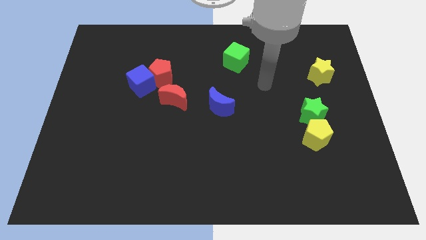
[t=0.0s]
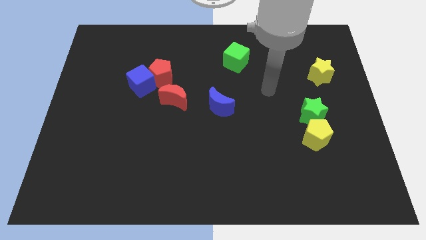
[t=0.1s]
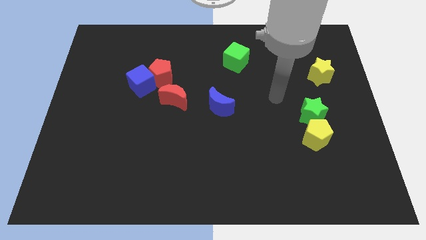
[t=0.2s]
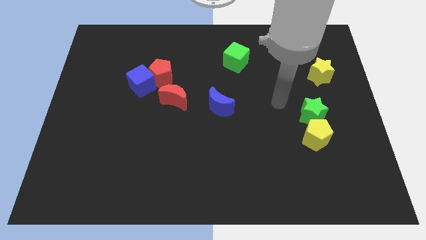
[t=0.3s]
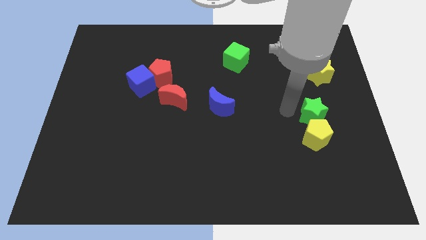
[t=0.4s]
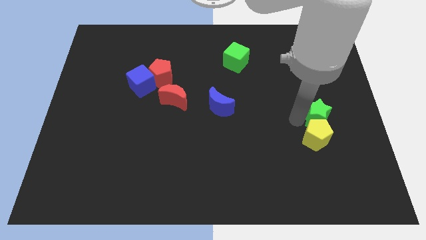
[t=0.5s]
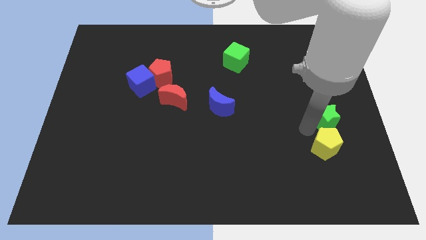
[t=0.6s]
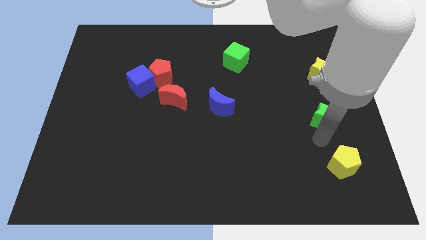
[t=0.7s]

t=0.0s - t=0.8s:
pull the green star apart from the yellow pentagon

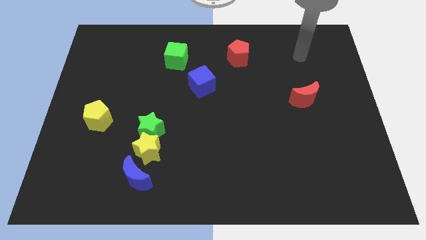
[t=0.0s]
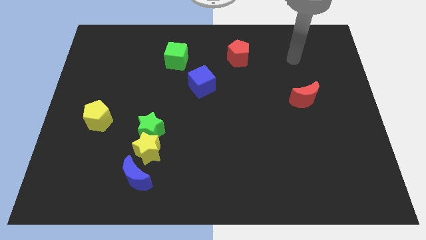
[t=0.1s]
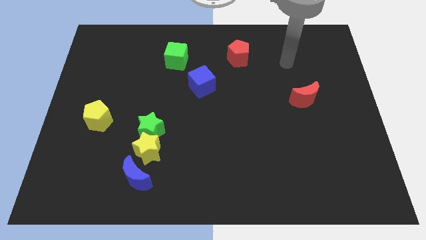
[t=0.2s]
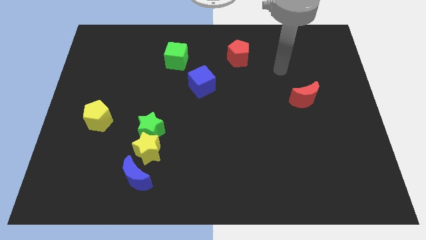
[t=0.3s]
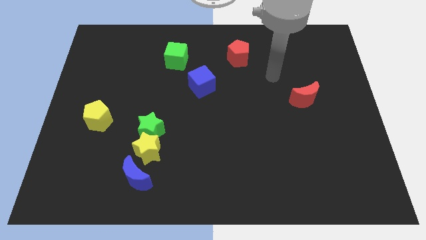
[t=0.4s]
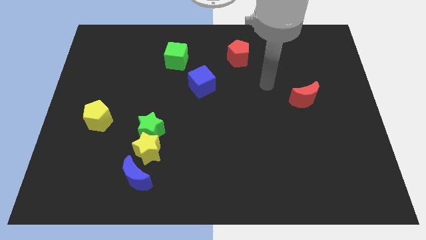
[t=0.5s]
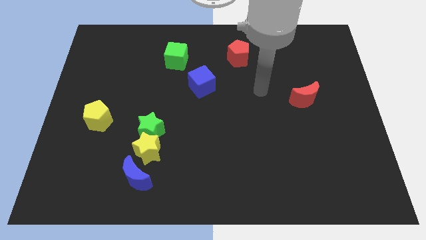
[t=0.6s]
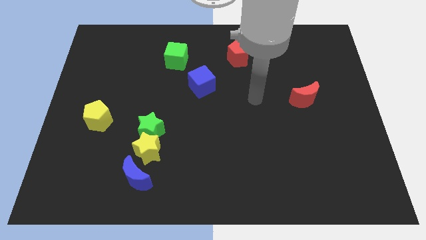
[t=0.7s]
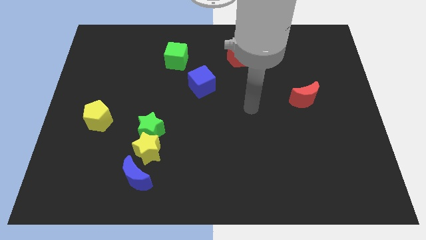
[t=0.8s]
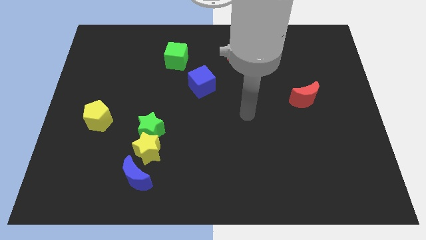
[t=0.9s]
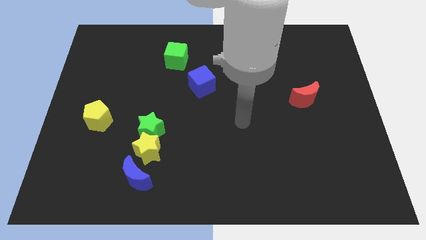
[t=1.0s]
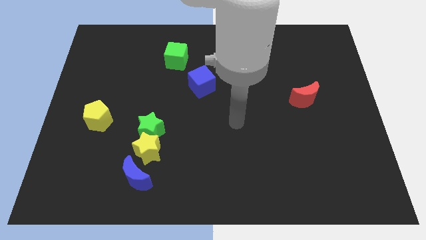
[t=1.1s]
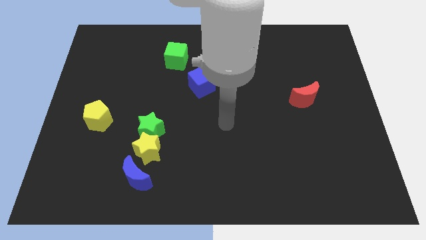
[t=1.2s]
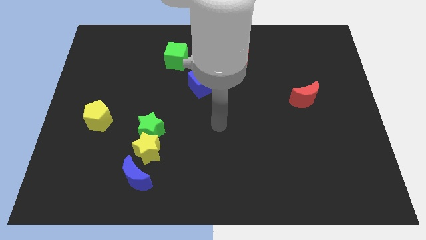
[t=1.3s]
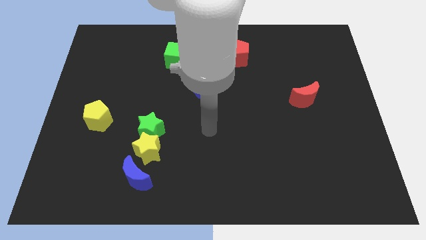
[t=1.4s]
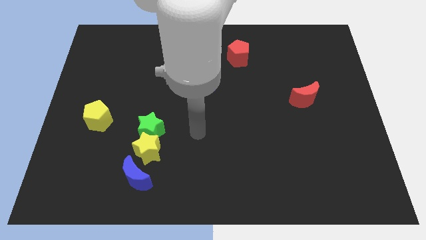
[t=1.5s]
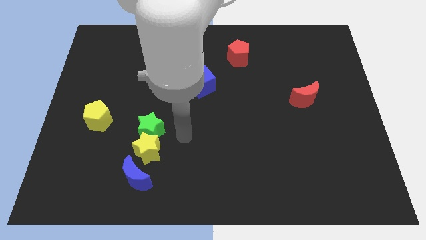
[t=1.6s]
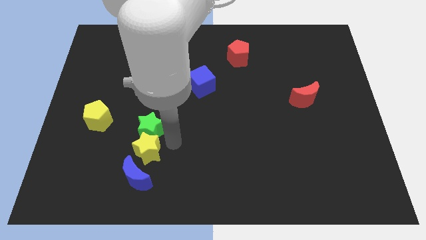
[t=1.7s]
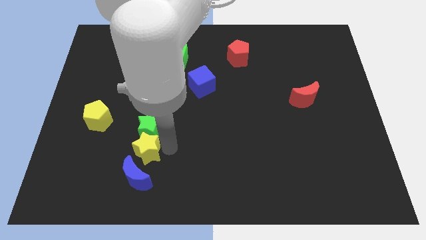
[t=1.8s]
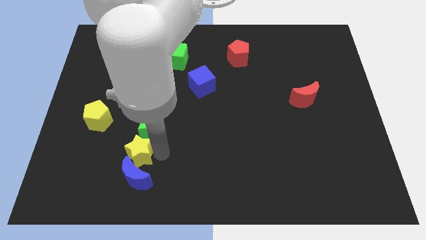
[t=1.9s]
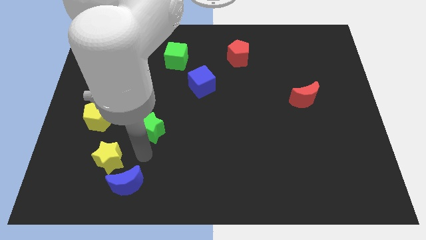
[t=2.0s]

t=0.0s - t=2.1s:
separate the green star from the yellow star

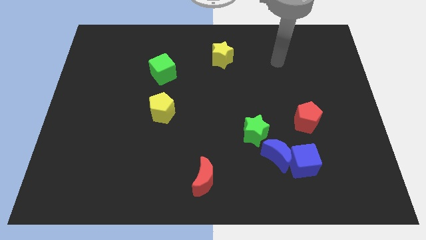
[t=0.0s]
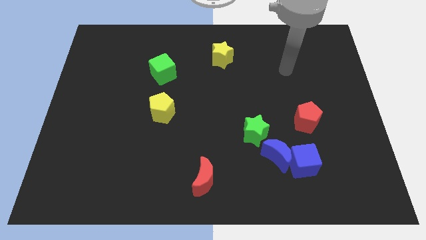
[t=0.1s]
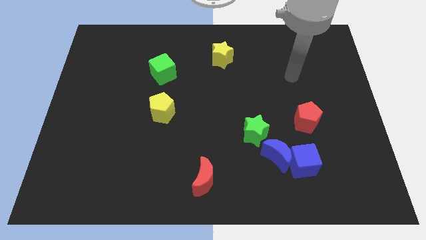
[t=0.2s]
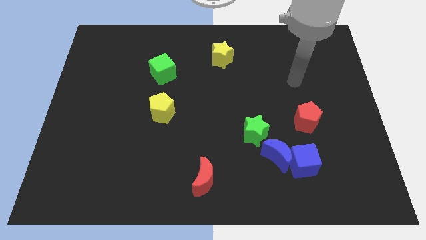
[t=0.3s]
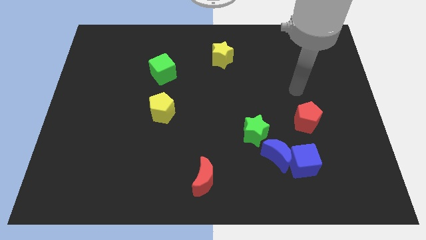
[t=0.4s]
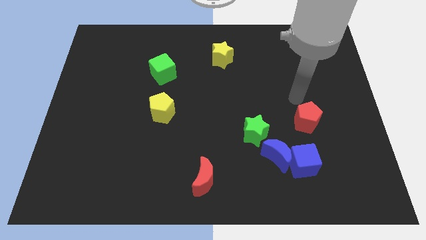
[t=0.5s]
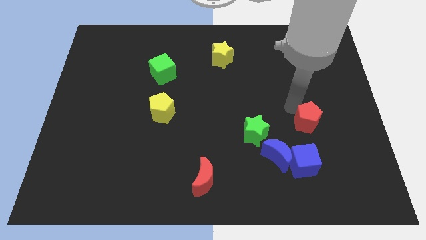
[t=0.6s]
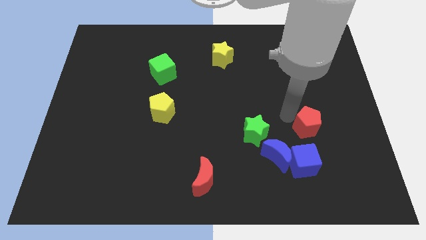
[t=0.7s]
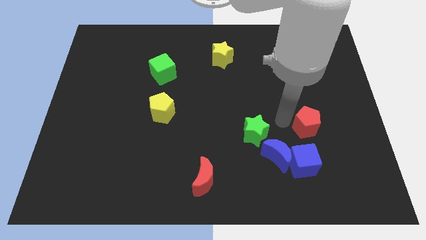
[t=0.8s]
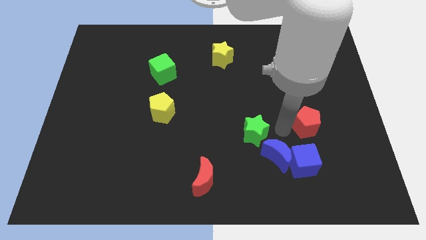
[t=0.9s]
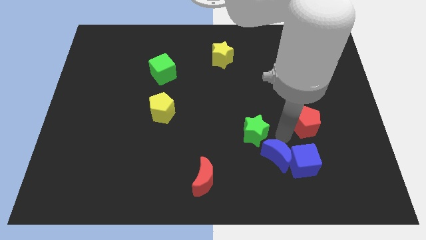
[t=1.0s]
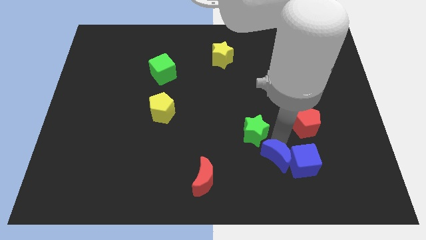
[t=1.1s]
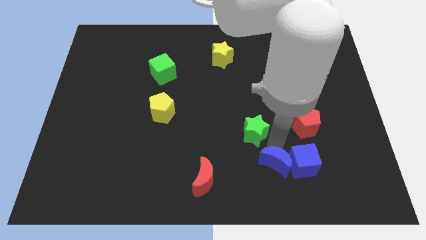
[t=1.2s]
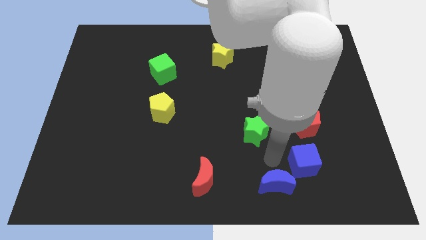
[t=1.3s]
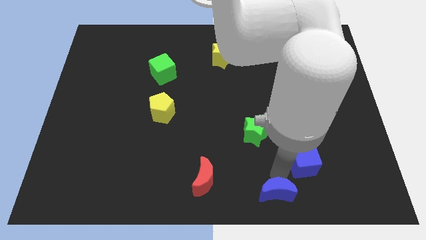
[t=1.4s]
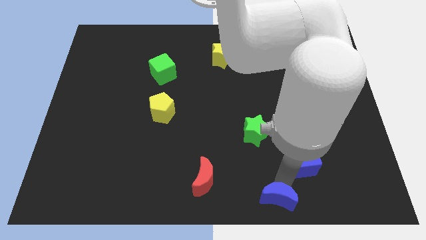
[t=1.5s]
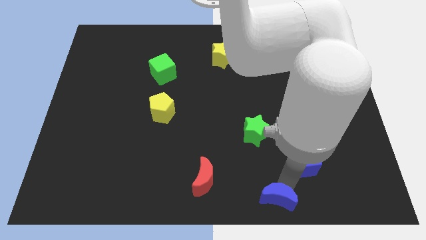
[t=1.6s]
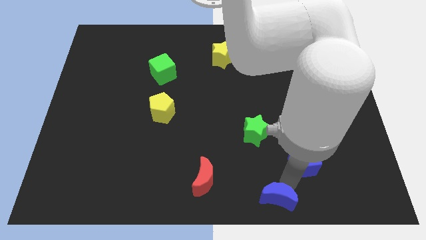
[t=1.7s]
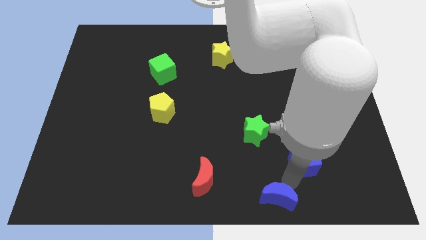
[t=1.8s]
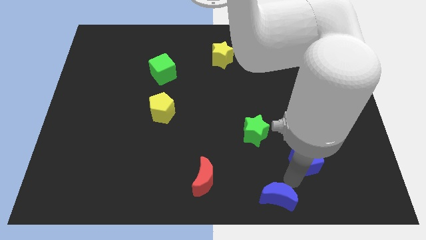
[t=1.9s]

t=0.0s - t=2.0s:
move the blue cube away from the blue moon

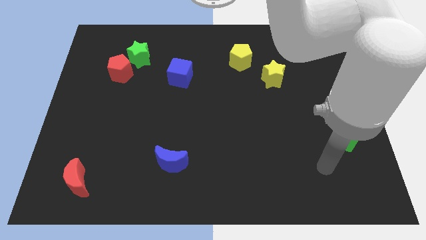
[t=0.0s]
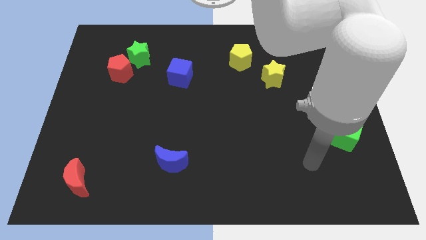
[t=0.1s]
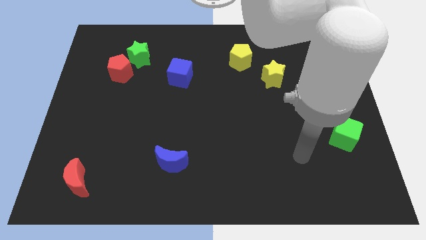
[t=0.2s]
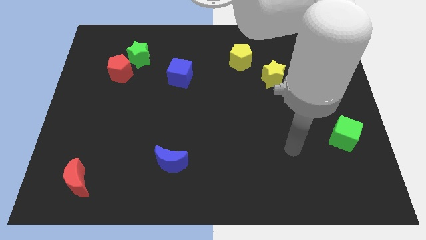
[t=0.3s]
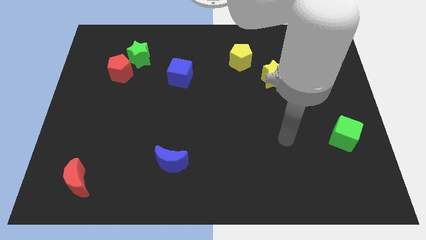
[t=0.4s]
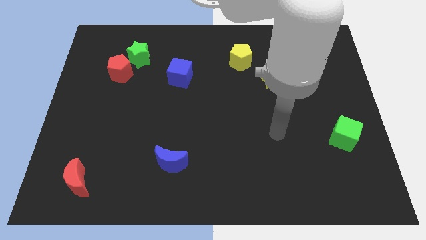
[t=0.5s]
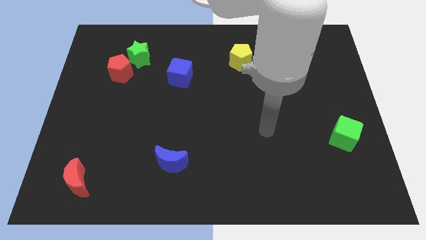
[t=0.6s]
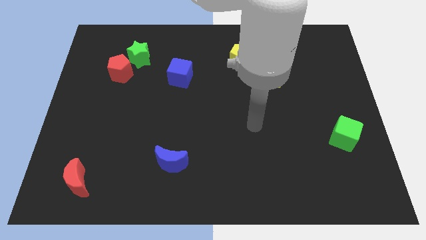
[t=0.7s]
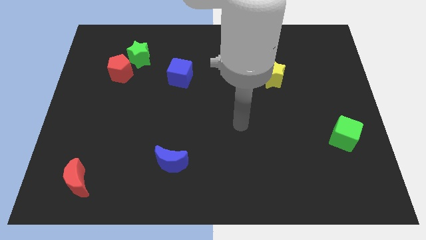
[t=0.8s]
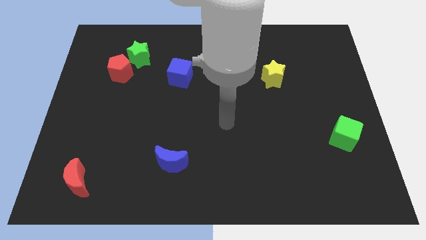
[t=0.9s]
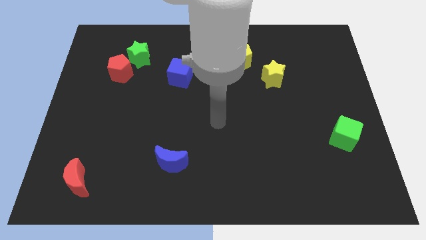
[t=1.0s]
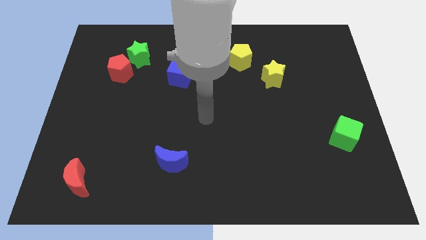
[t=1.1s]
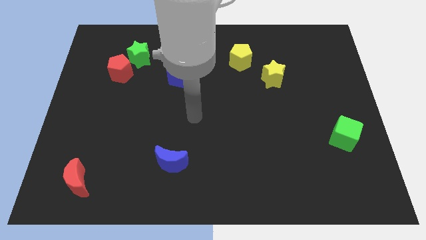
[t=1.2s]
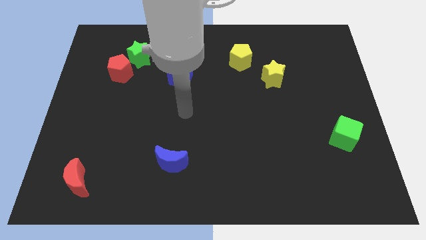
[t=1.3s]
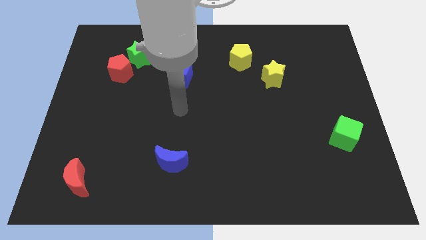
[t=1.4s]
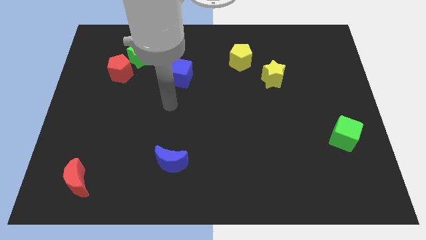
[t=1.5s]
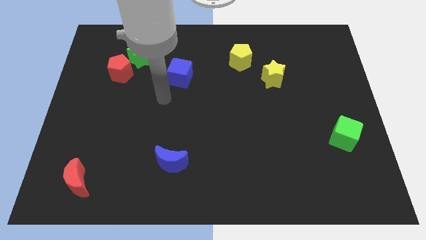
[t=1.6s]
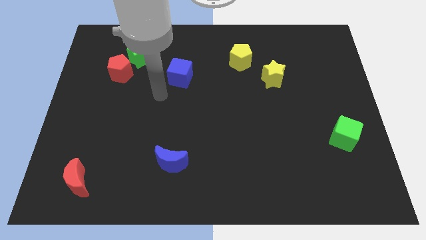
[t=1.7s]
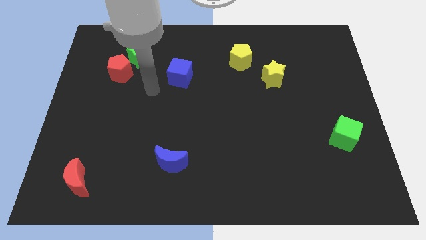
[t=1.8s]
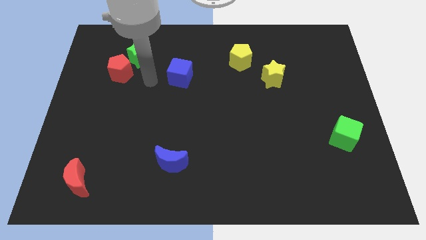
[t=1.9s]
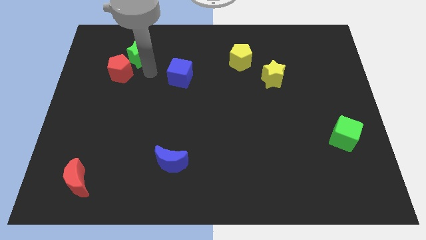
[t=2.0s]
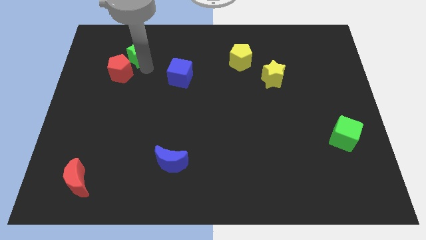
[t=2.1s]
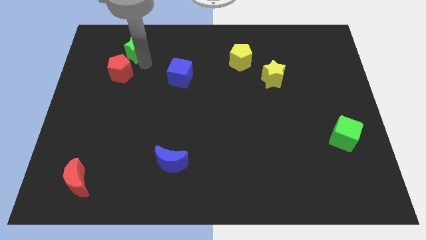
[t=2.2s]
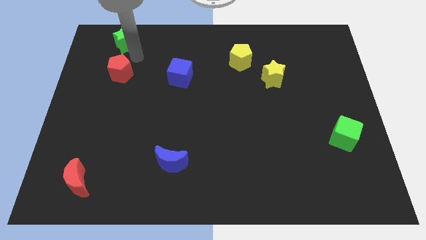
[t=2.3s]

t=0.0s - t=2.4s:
pull the red pentagon apart from the green star

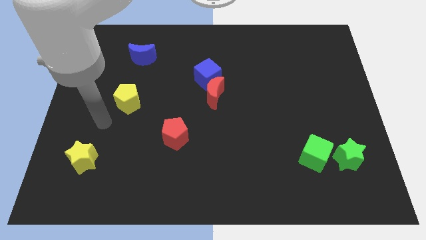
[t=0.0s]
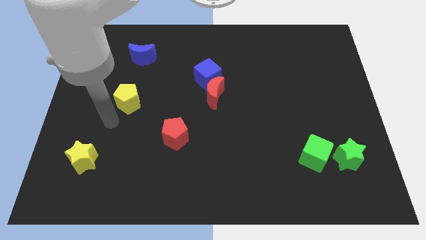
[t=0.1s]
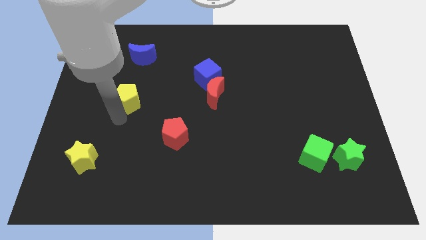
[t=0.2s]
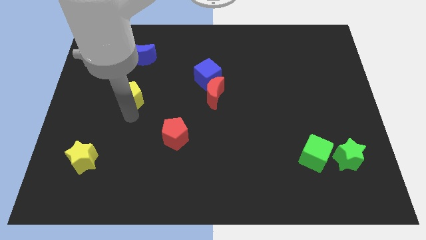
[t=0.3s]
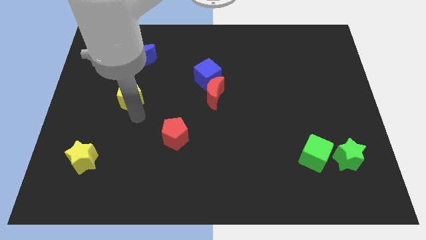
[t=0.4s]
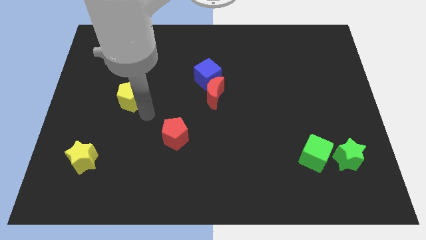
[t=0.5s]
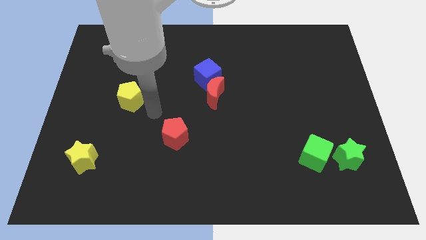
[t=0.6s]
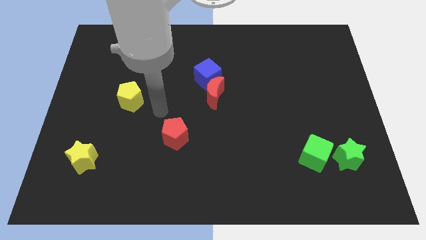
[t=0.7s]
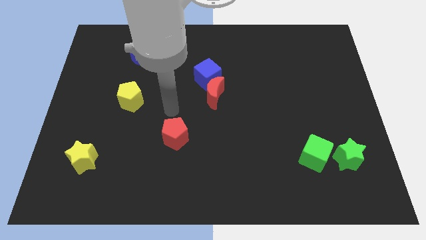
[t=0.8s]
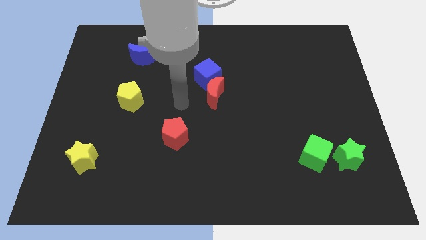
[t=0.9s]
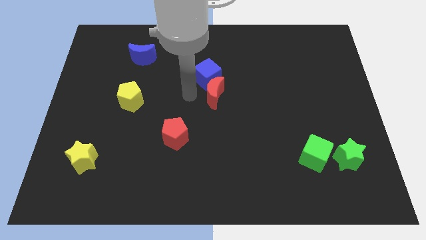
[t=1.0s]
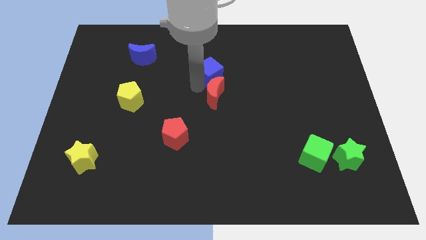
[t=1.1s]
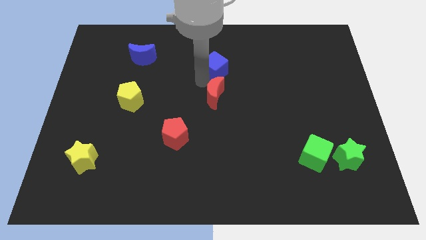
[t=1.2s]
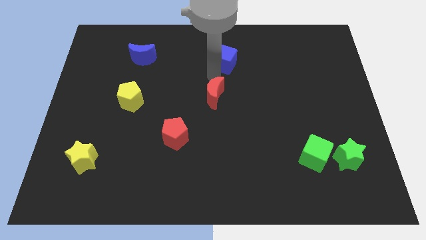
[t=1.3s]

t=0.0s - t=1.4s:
pull the red moon apart from the blue cube

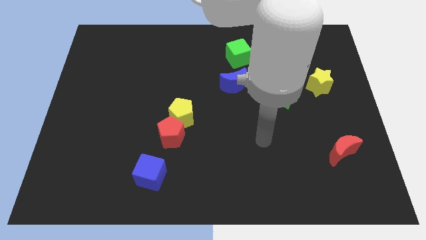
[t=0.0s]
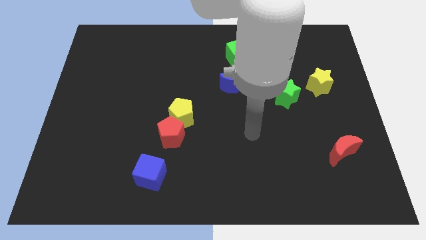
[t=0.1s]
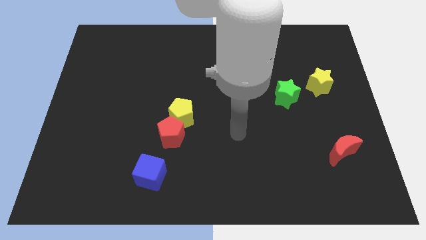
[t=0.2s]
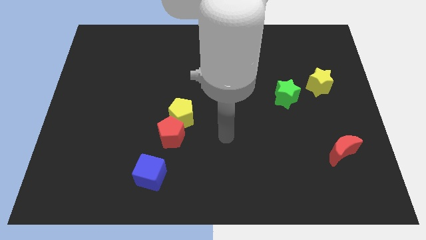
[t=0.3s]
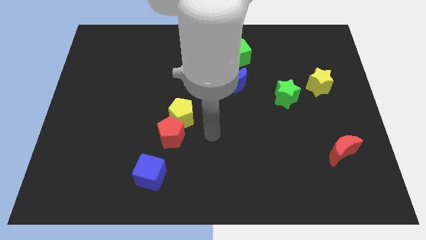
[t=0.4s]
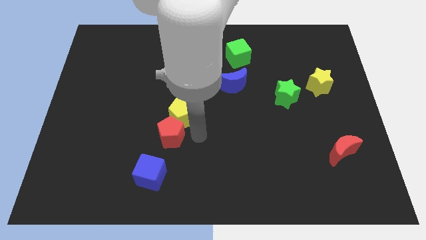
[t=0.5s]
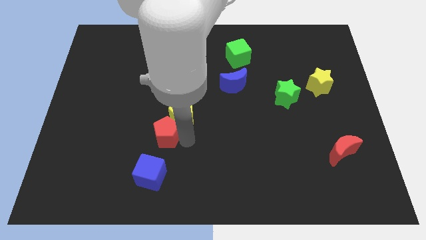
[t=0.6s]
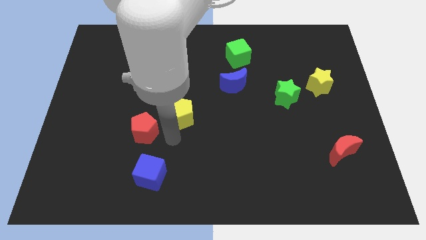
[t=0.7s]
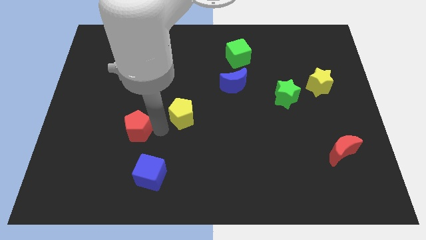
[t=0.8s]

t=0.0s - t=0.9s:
pull the yellow pentagon apart from the red pentagon
